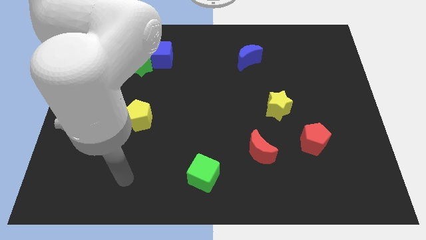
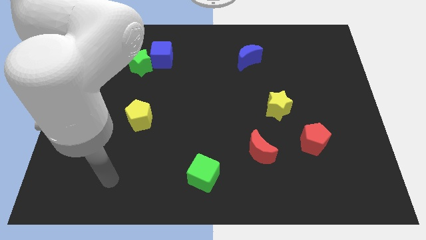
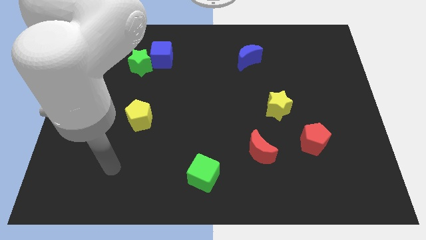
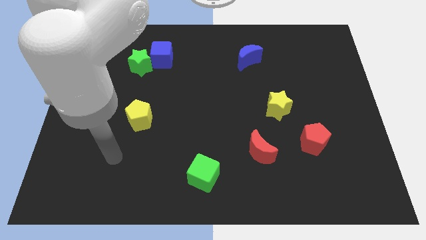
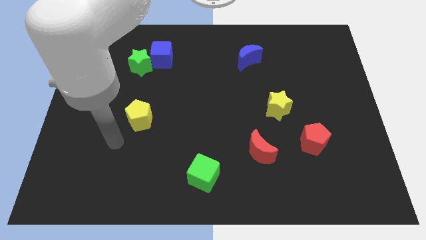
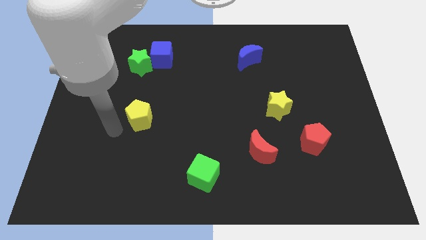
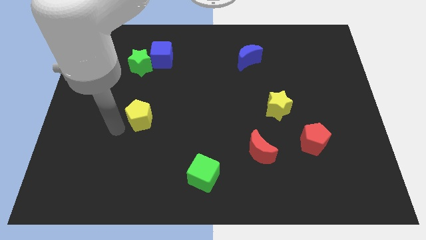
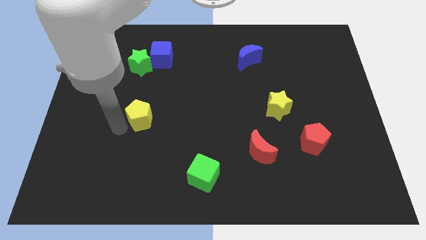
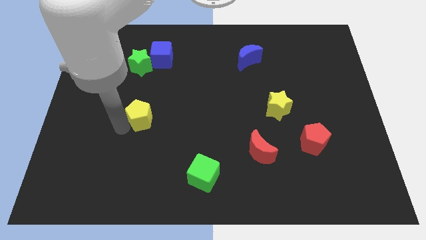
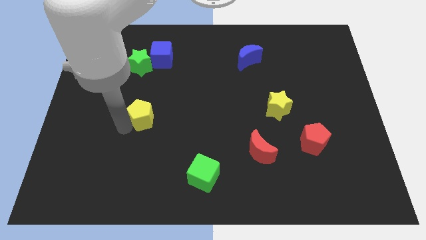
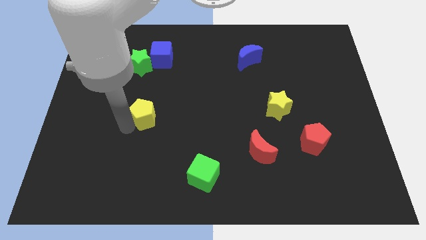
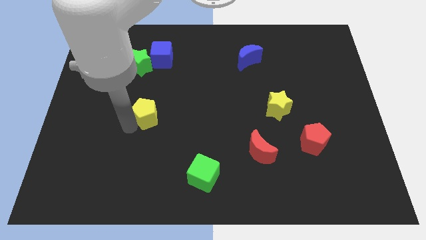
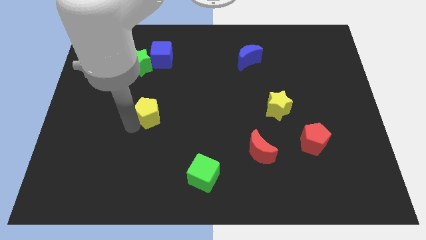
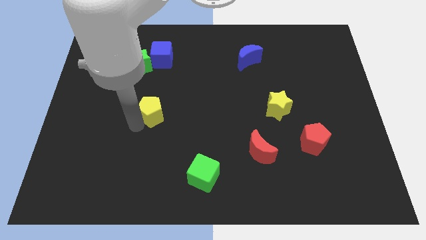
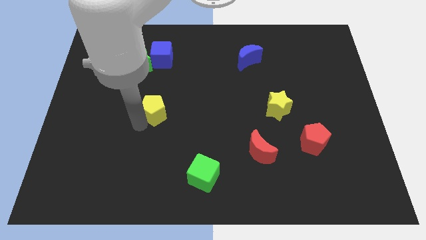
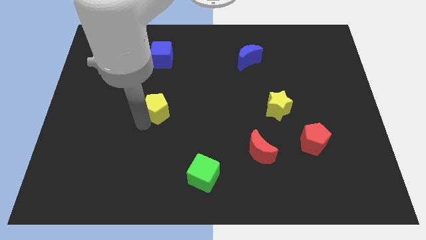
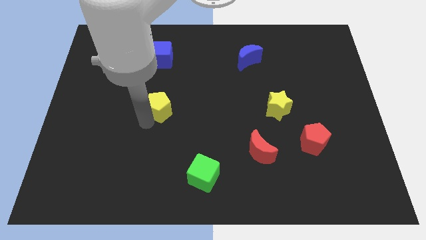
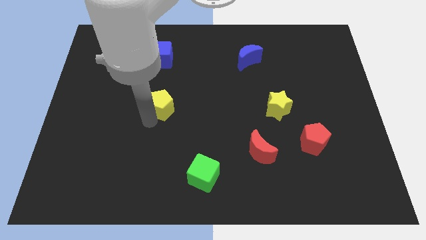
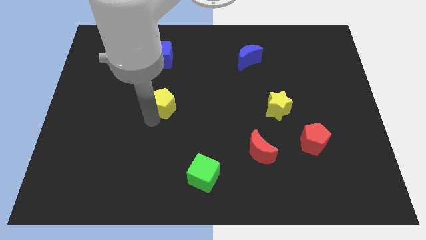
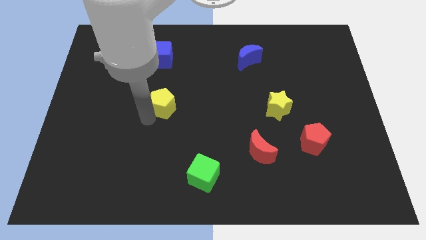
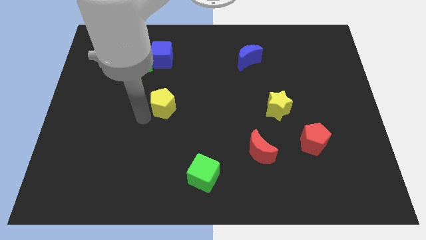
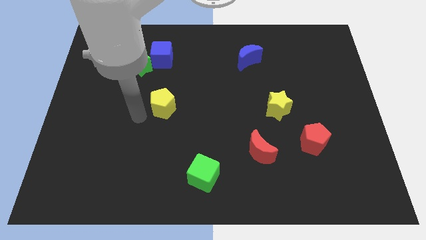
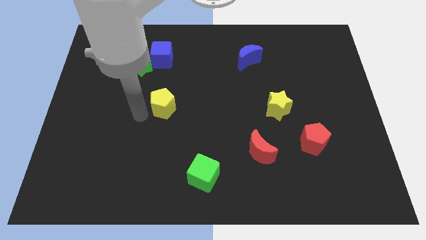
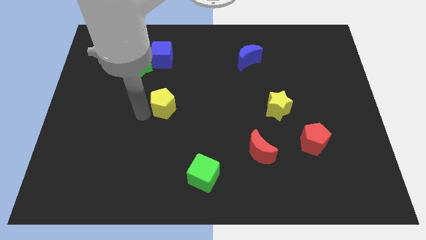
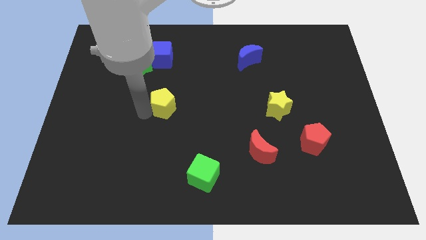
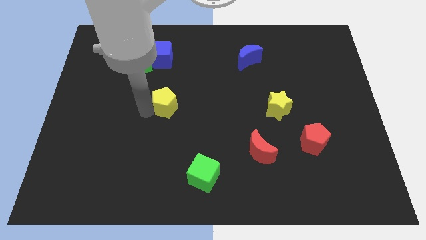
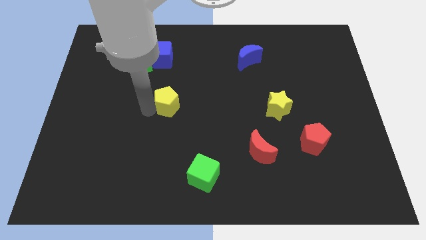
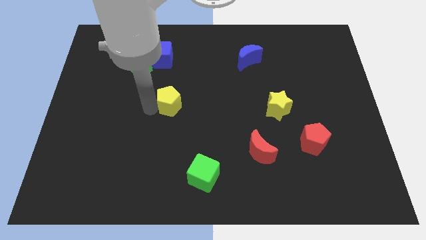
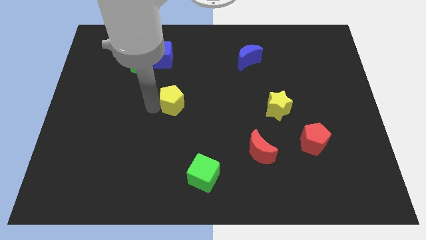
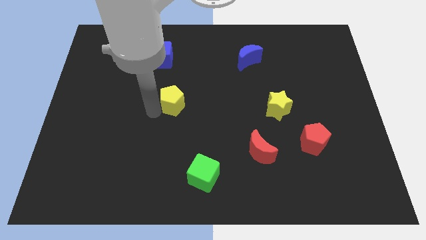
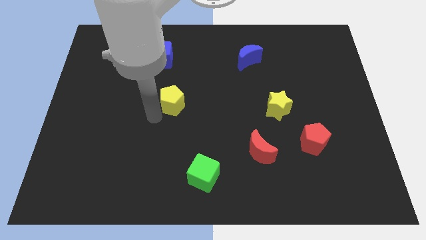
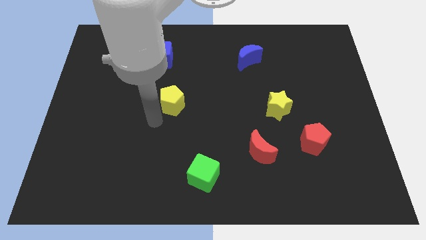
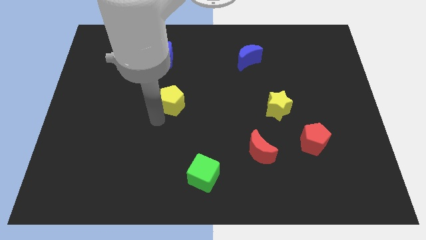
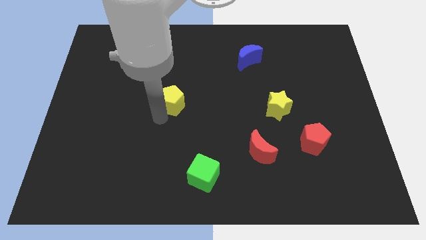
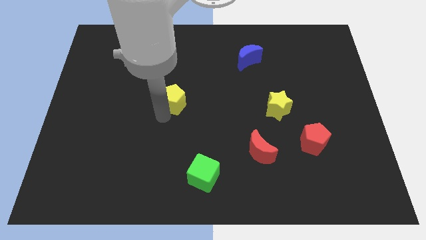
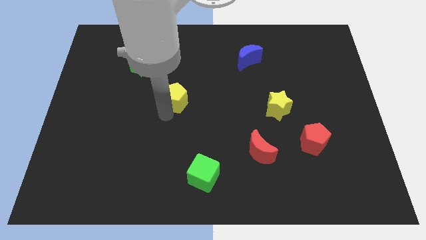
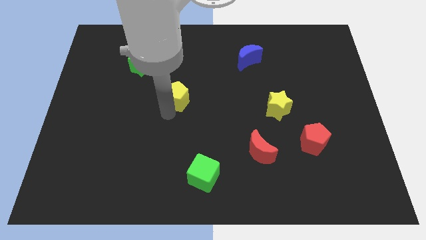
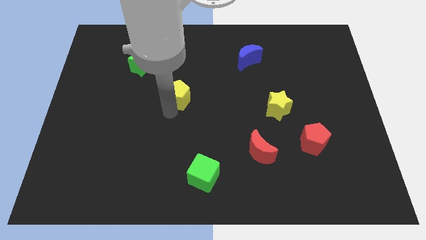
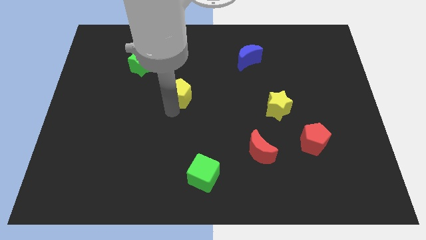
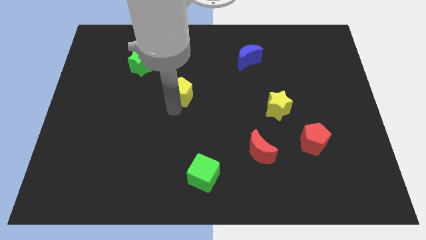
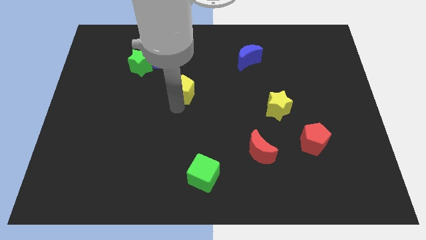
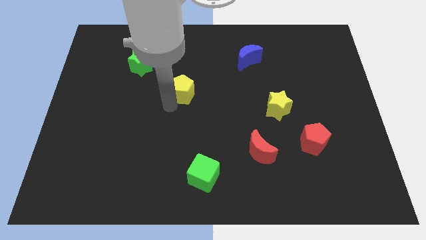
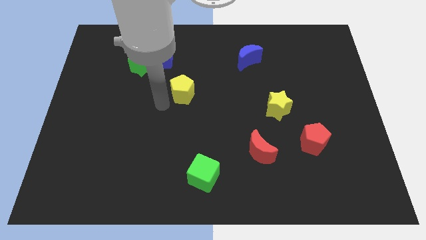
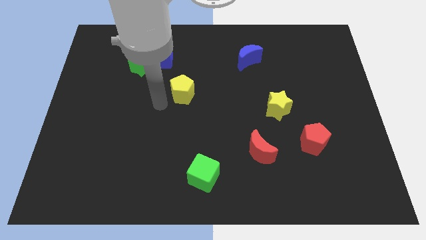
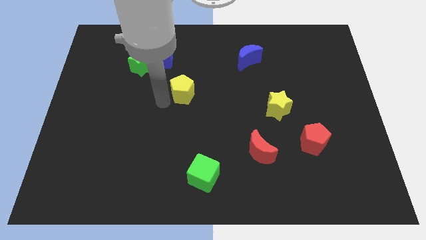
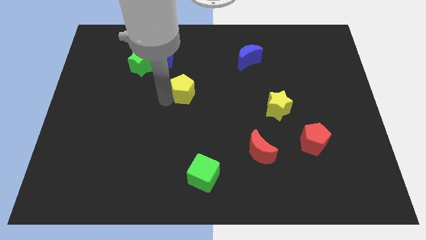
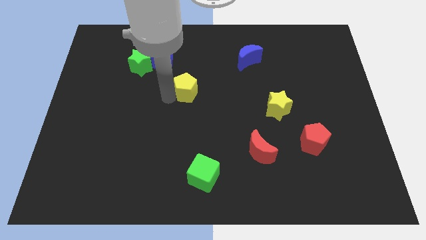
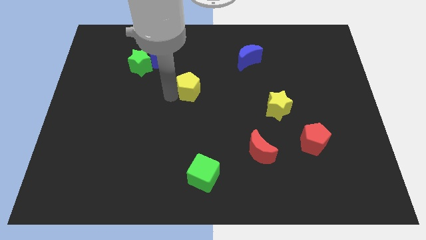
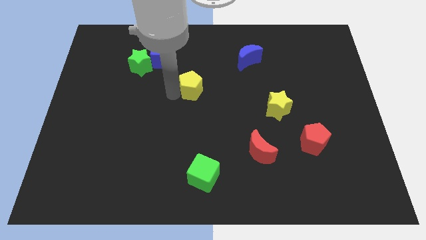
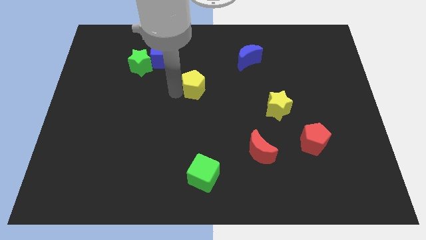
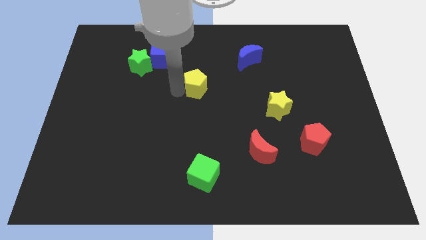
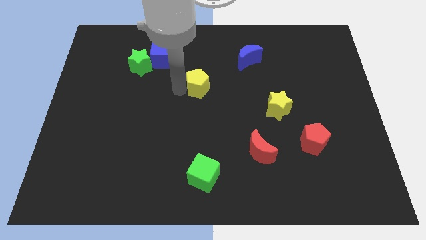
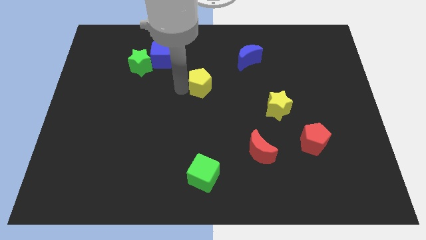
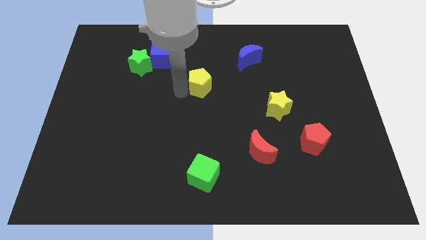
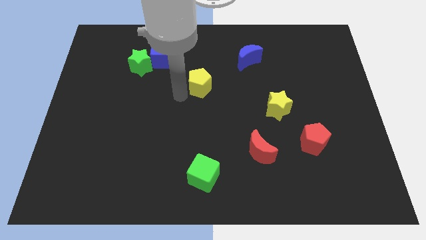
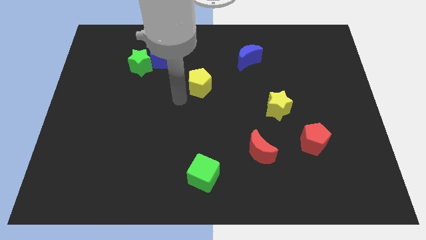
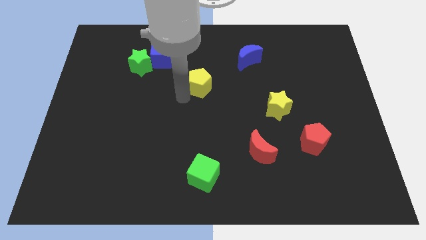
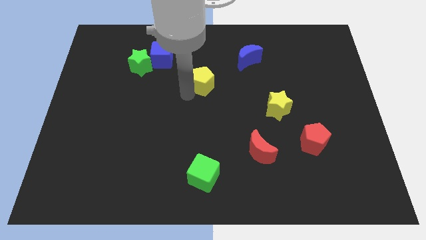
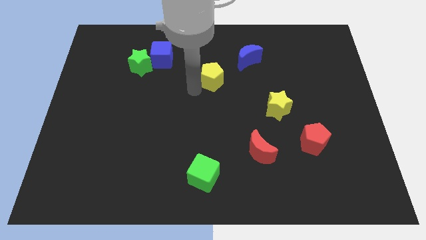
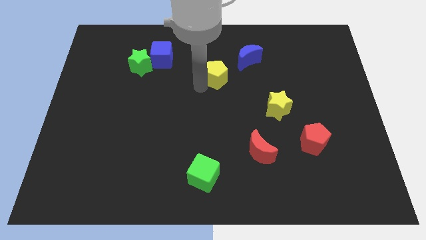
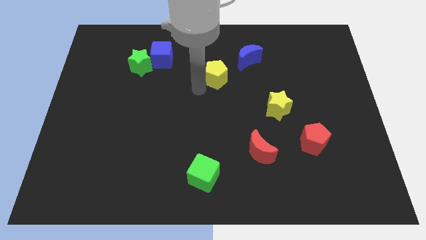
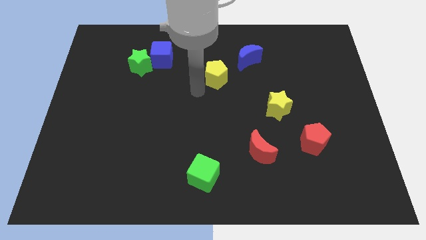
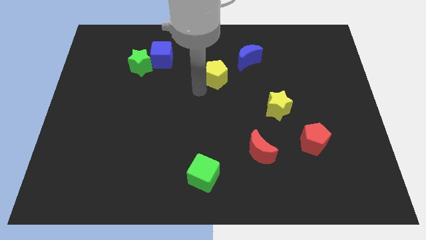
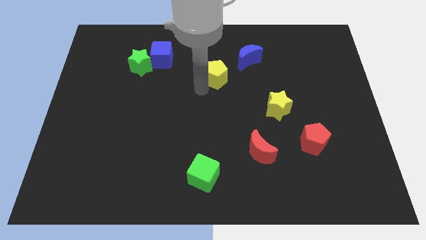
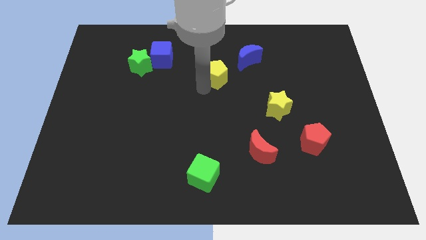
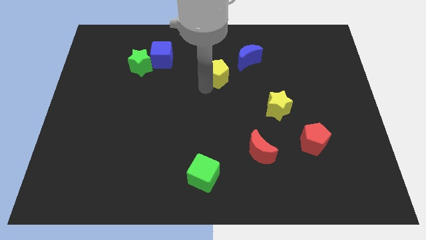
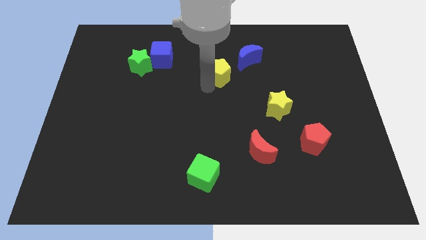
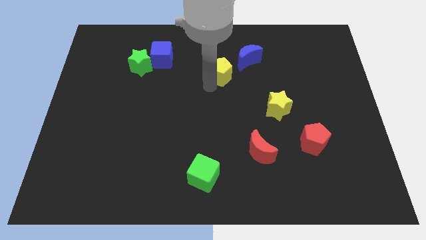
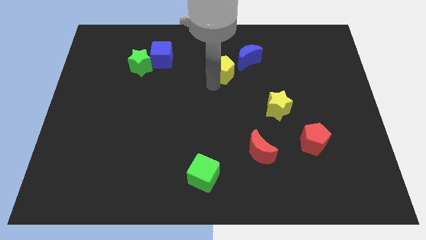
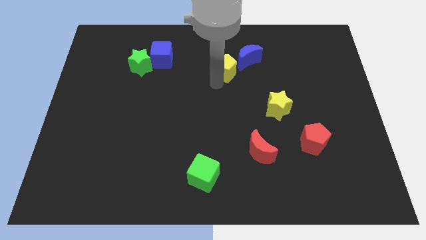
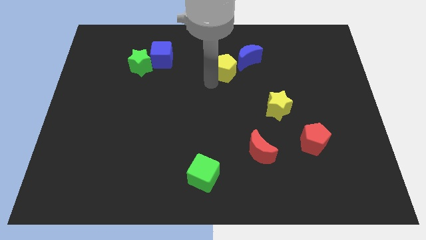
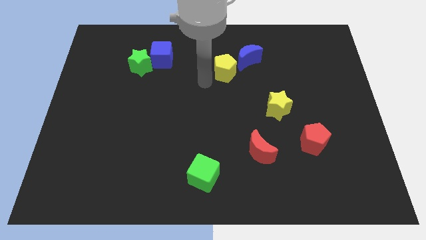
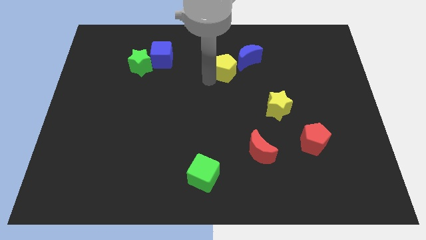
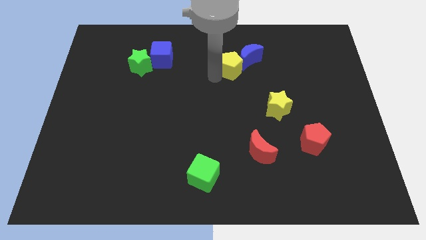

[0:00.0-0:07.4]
slide the yellow pentagon to the blue moon
